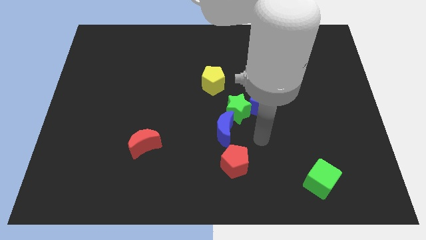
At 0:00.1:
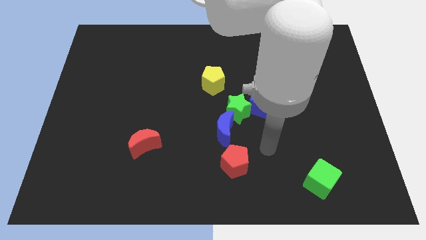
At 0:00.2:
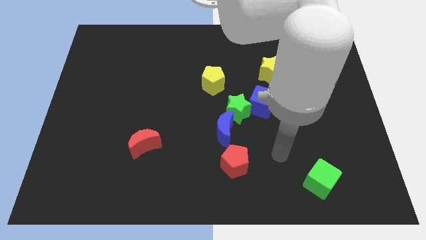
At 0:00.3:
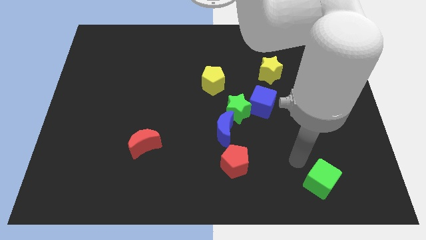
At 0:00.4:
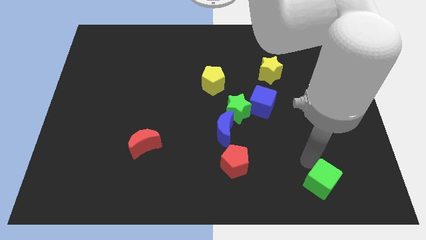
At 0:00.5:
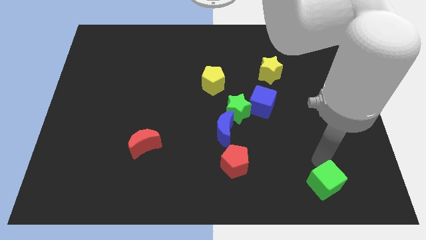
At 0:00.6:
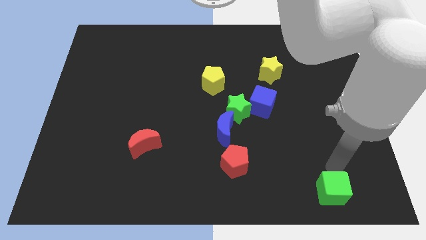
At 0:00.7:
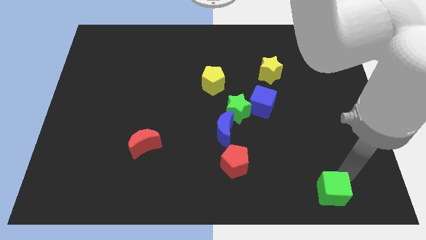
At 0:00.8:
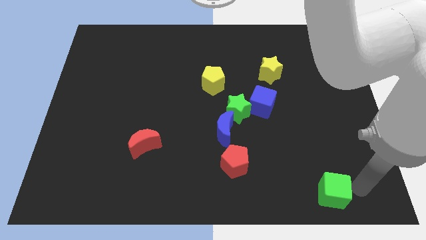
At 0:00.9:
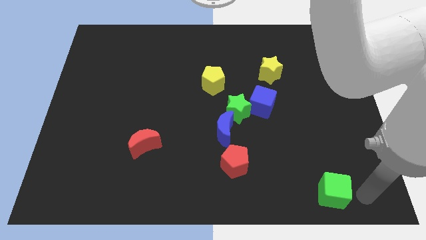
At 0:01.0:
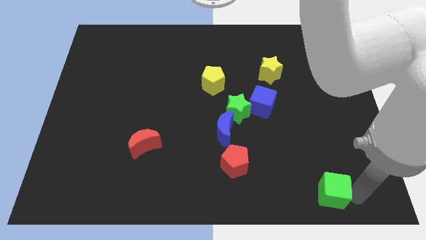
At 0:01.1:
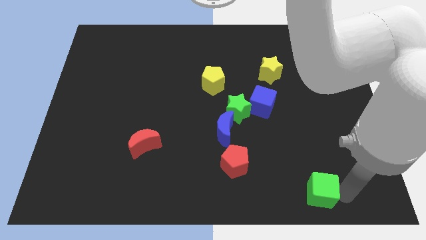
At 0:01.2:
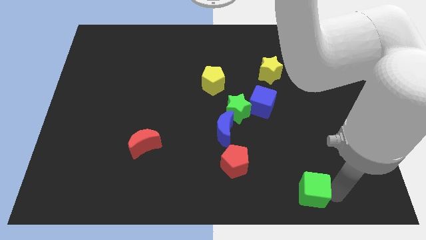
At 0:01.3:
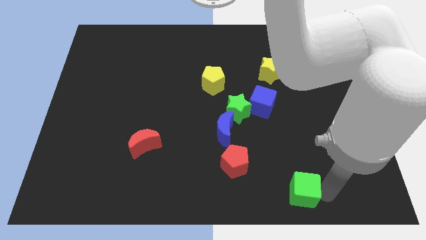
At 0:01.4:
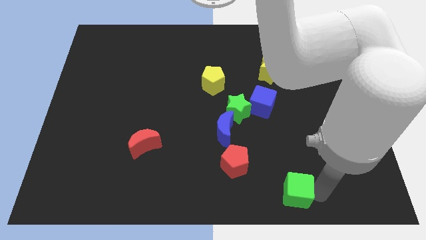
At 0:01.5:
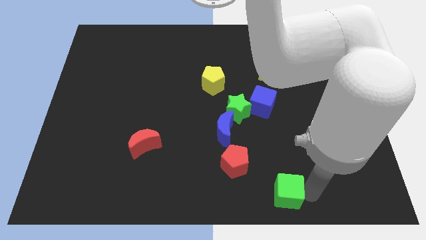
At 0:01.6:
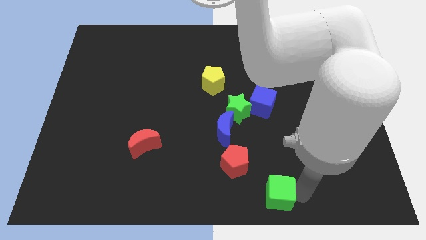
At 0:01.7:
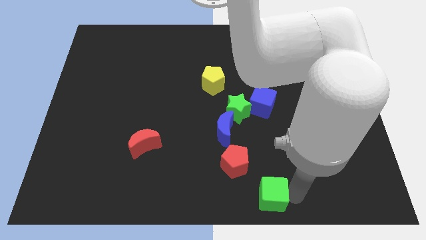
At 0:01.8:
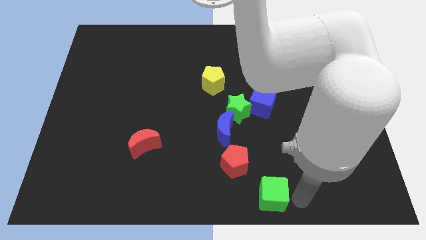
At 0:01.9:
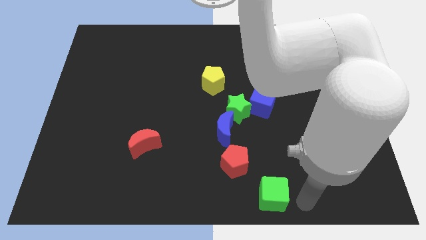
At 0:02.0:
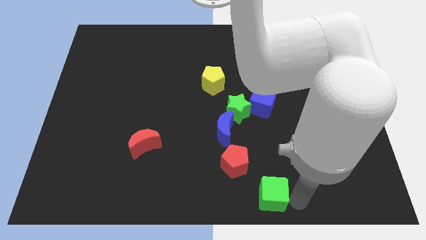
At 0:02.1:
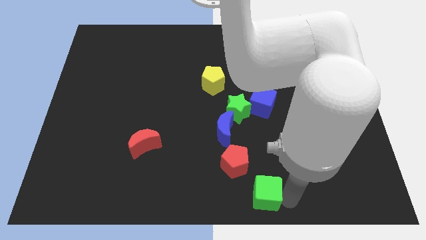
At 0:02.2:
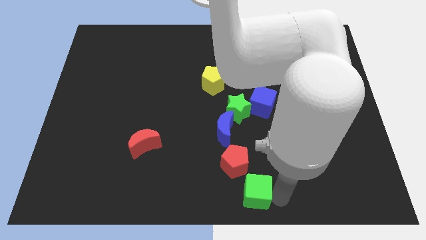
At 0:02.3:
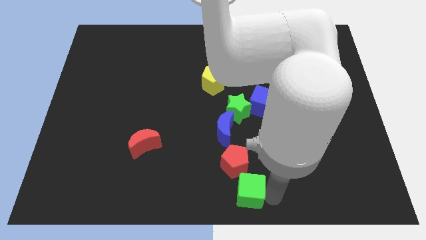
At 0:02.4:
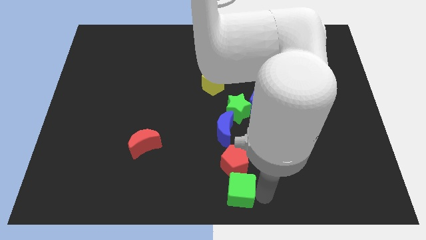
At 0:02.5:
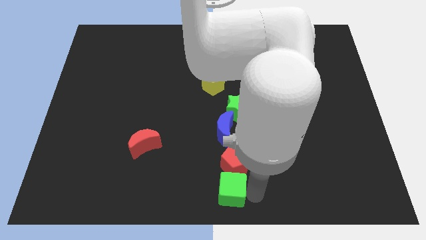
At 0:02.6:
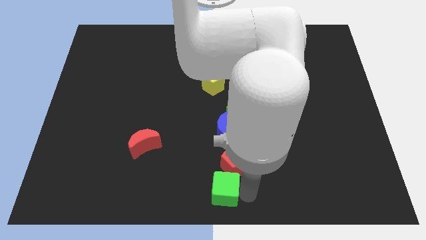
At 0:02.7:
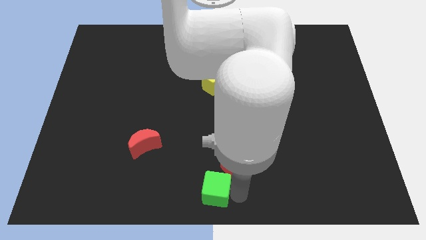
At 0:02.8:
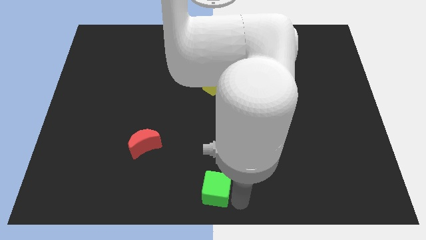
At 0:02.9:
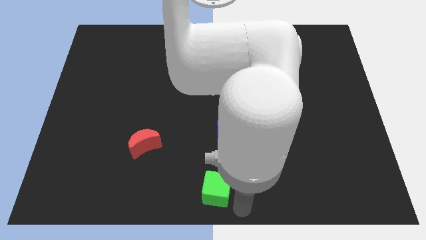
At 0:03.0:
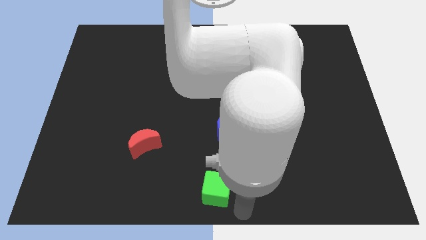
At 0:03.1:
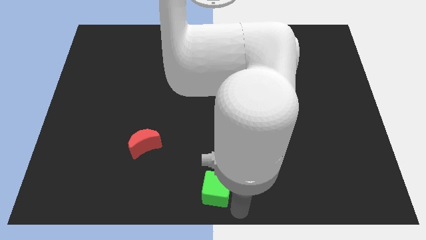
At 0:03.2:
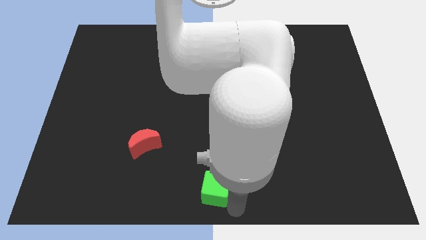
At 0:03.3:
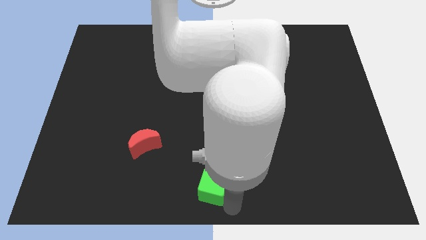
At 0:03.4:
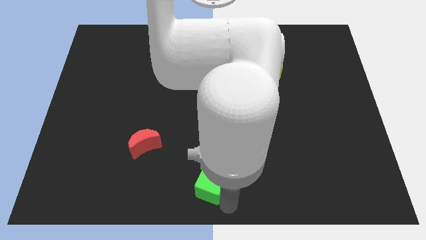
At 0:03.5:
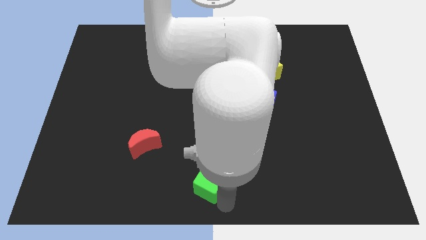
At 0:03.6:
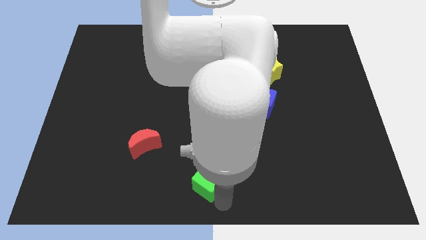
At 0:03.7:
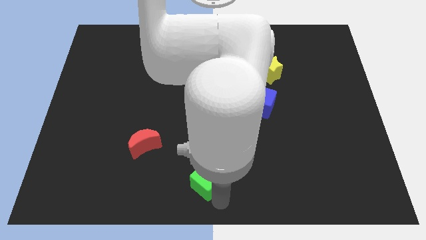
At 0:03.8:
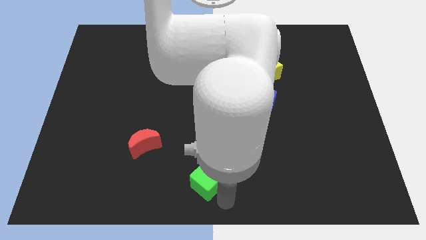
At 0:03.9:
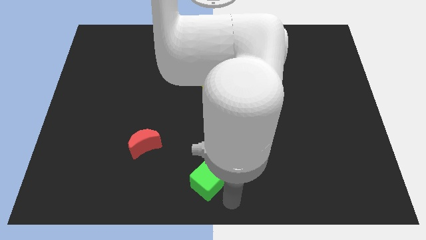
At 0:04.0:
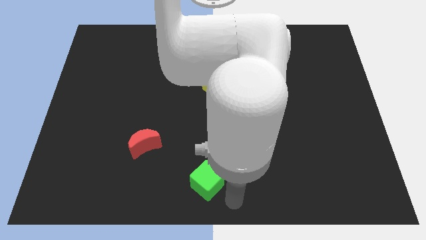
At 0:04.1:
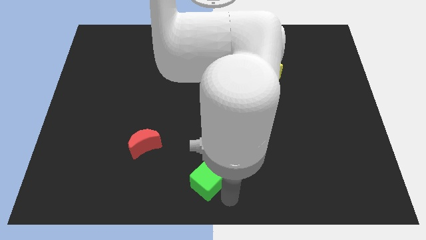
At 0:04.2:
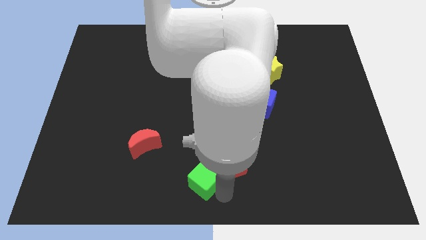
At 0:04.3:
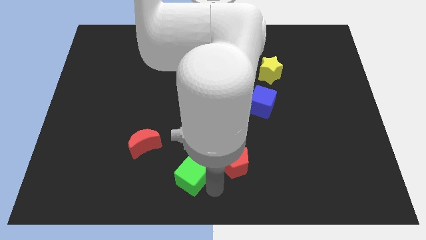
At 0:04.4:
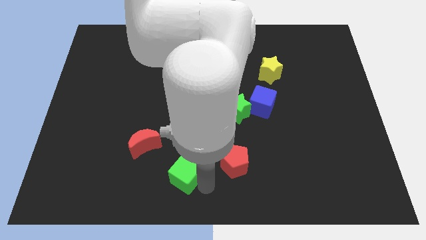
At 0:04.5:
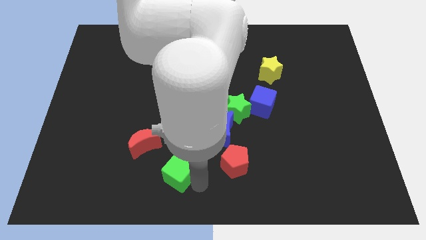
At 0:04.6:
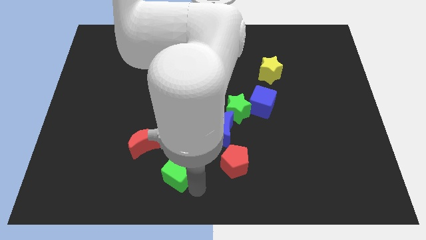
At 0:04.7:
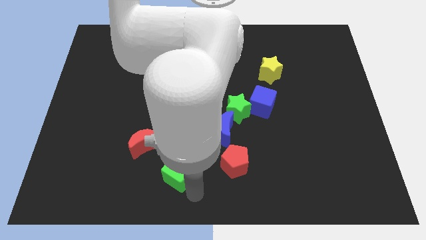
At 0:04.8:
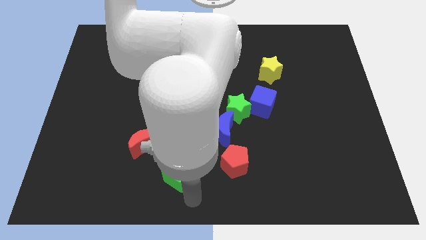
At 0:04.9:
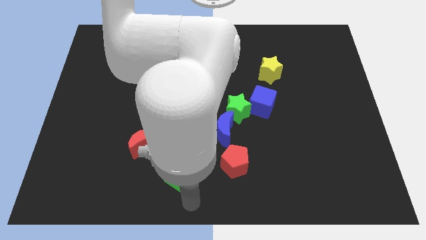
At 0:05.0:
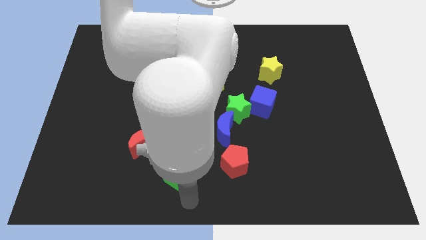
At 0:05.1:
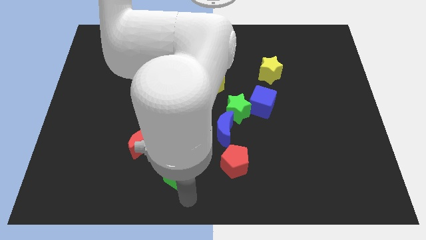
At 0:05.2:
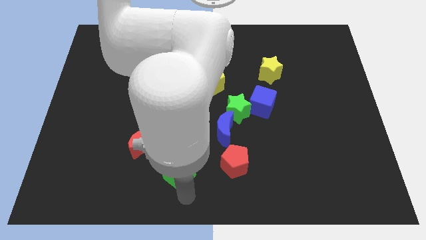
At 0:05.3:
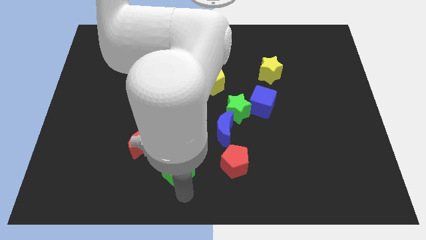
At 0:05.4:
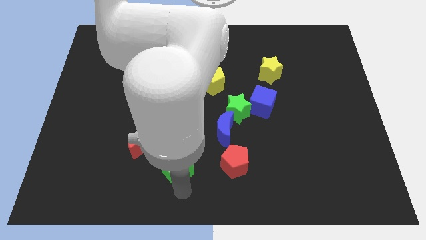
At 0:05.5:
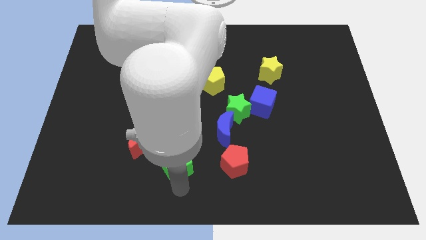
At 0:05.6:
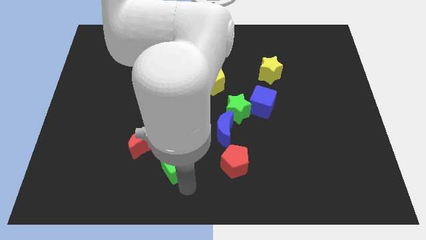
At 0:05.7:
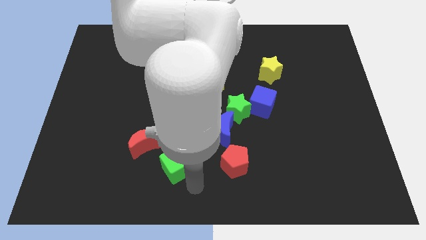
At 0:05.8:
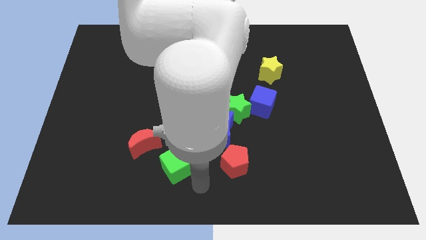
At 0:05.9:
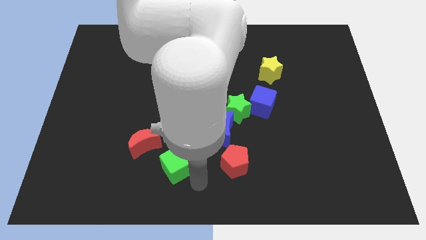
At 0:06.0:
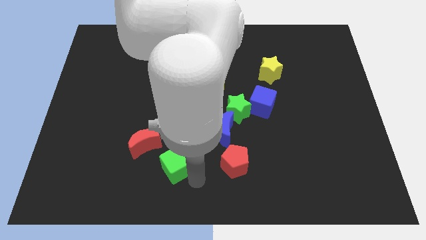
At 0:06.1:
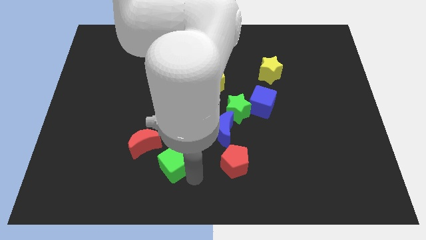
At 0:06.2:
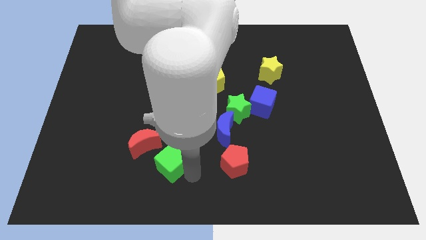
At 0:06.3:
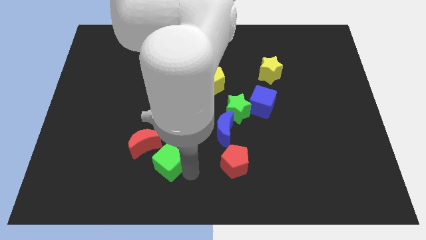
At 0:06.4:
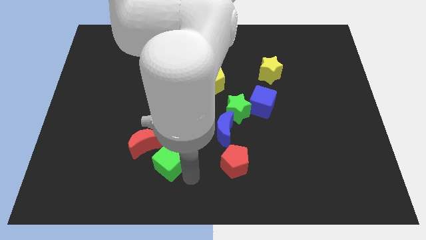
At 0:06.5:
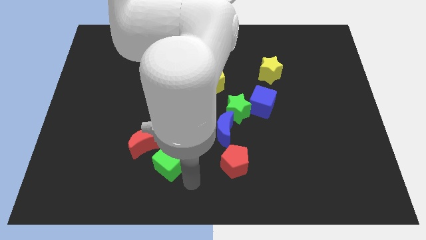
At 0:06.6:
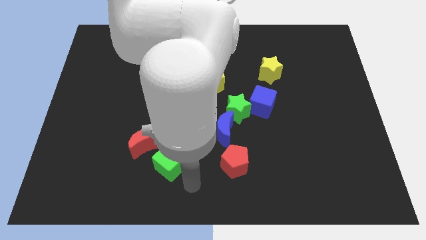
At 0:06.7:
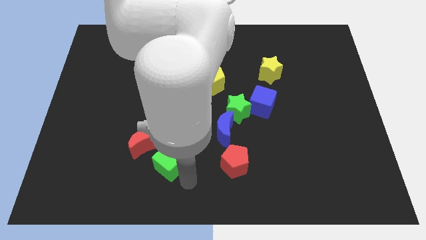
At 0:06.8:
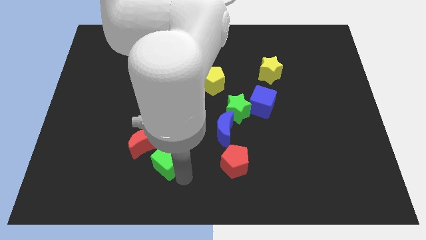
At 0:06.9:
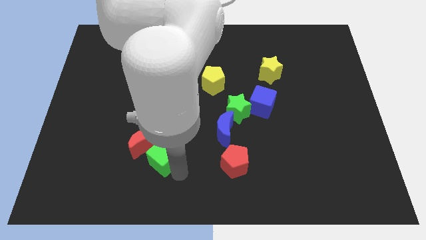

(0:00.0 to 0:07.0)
put the green cube to the red moon
